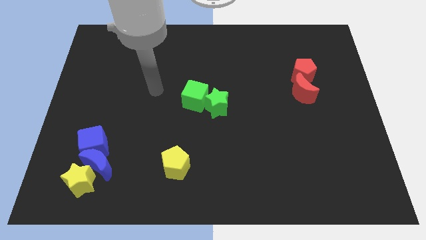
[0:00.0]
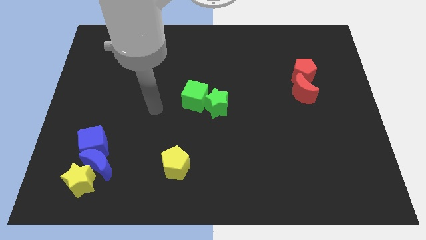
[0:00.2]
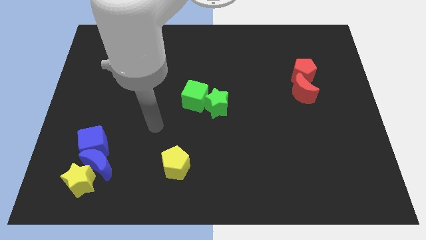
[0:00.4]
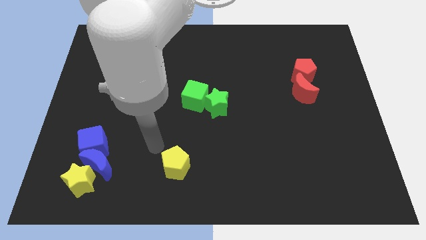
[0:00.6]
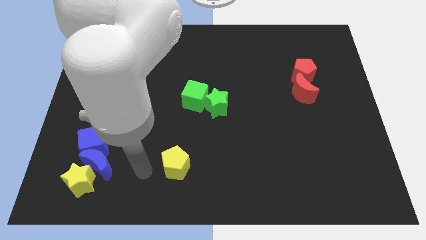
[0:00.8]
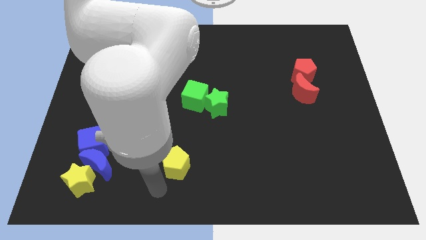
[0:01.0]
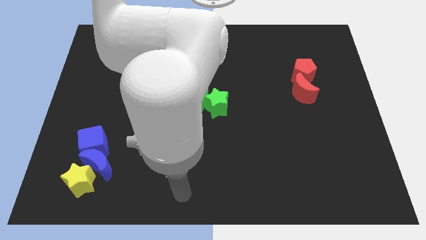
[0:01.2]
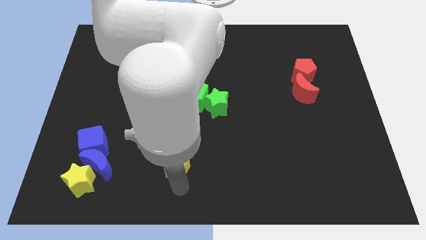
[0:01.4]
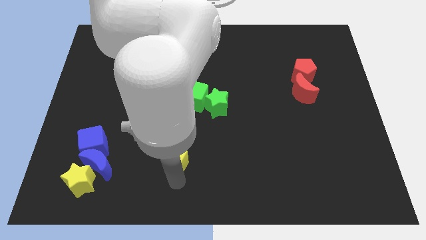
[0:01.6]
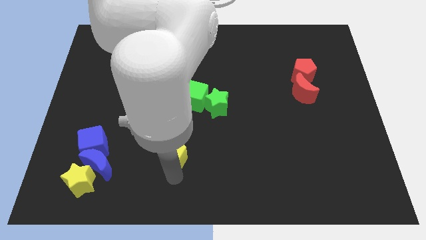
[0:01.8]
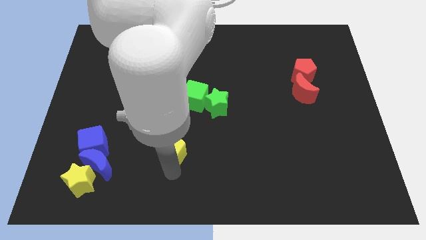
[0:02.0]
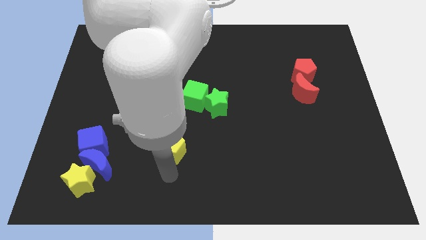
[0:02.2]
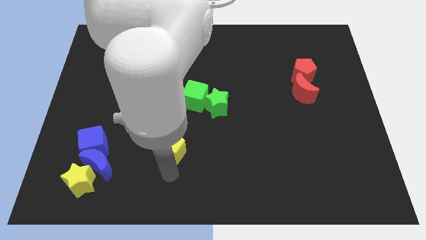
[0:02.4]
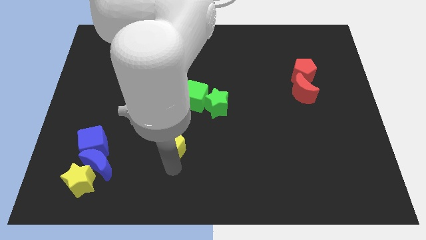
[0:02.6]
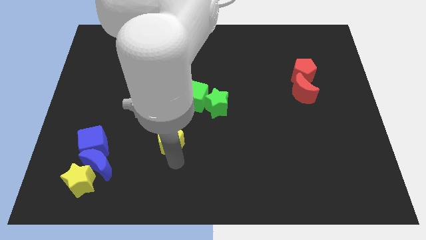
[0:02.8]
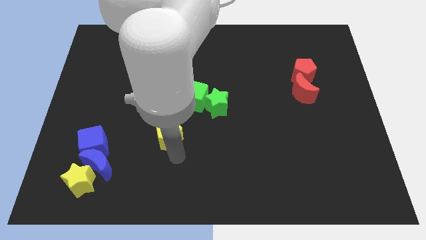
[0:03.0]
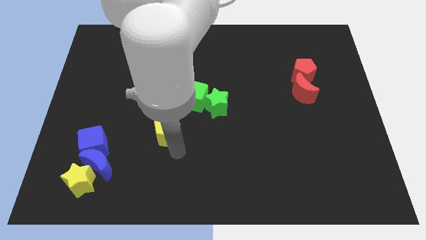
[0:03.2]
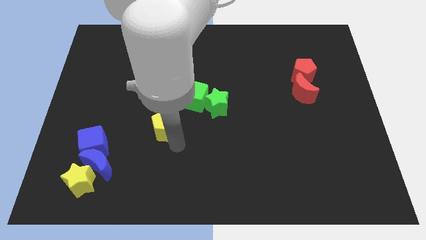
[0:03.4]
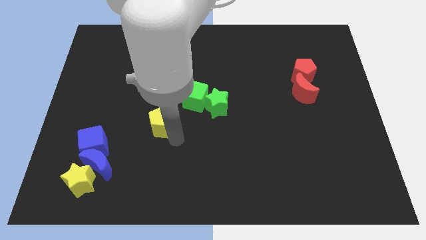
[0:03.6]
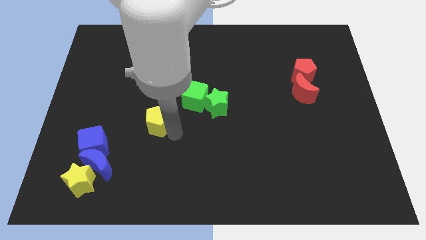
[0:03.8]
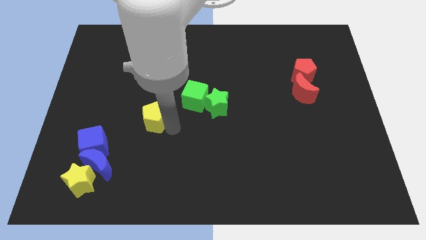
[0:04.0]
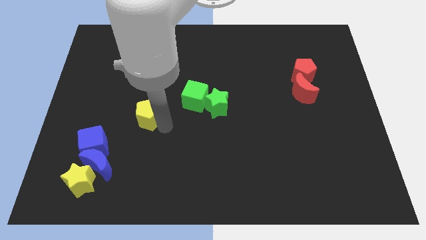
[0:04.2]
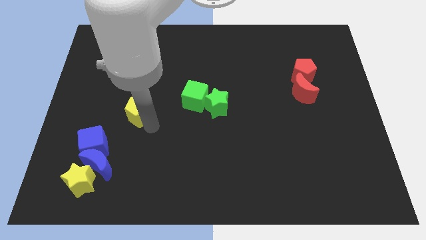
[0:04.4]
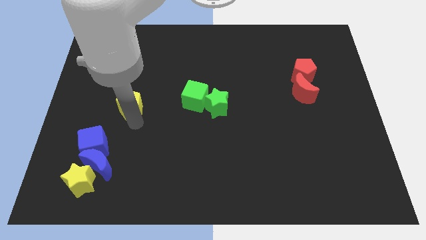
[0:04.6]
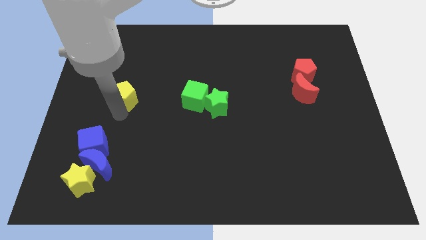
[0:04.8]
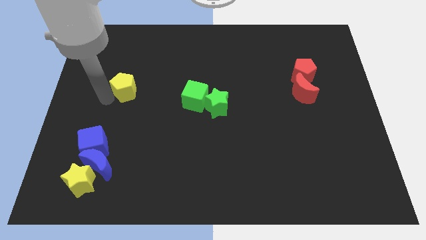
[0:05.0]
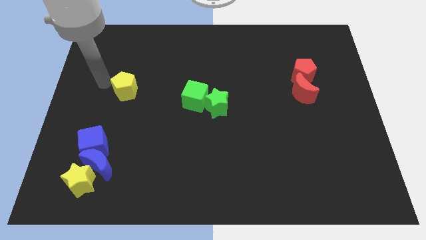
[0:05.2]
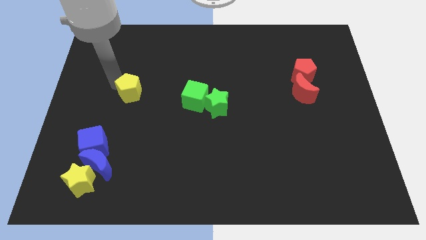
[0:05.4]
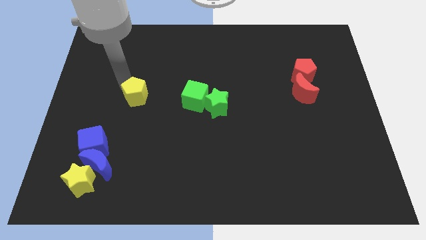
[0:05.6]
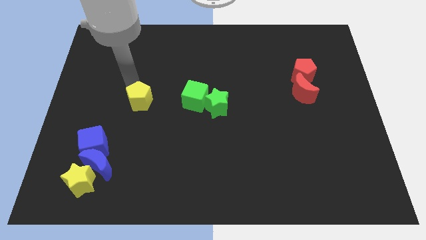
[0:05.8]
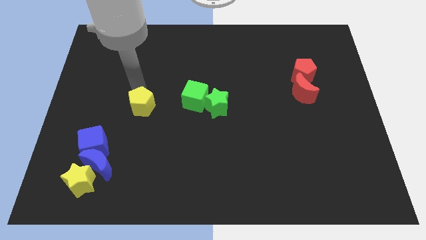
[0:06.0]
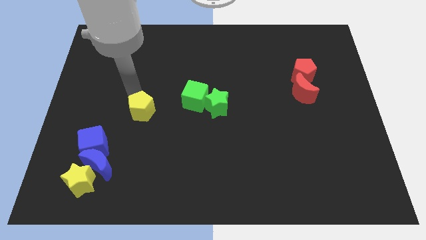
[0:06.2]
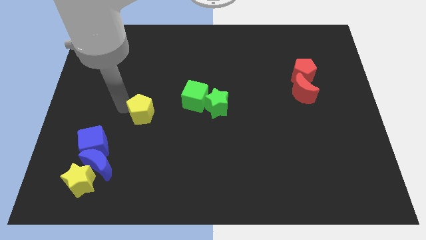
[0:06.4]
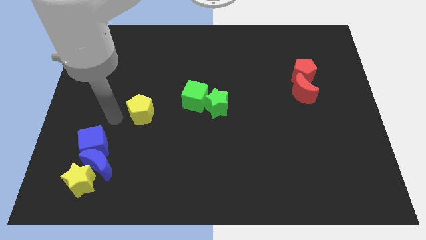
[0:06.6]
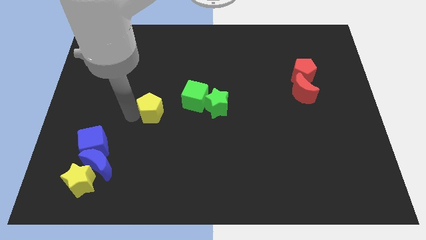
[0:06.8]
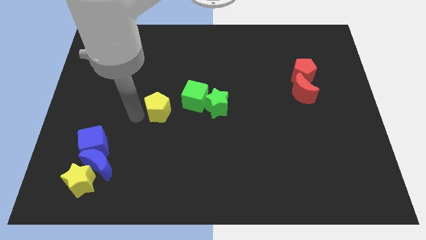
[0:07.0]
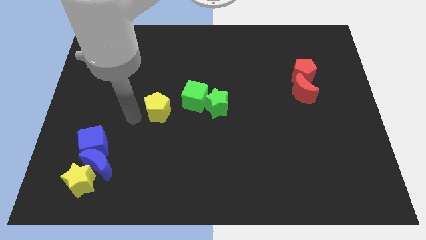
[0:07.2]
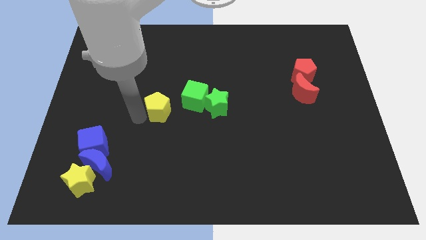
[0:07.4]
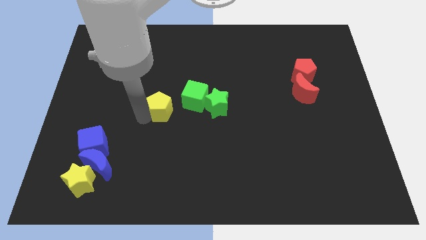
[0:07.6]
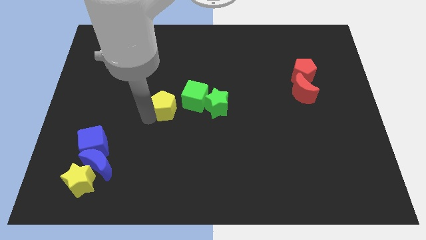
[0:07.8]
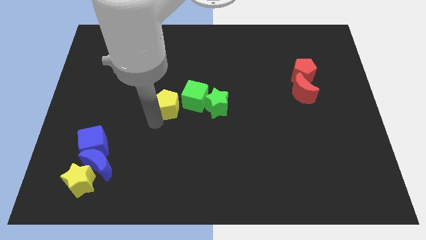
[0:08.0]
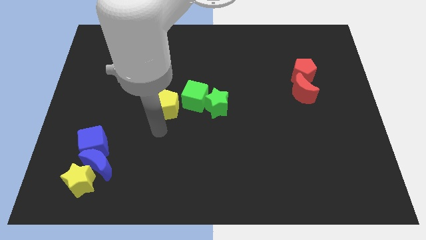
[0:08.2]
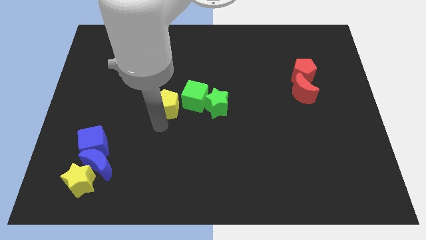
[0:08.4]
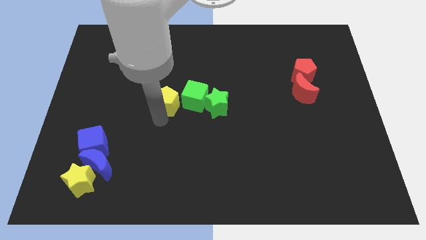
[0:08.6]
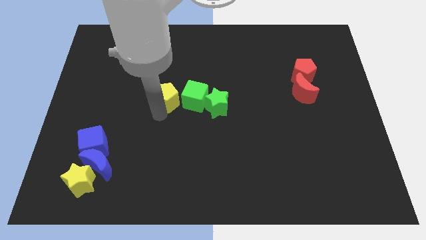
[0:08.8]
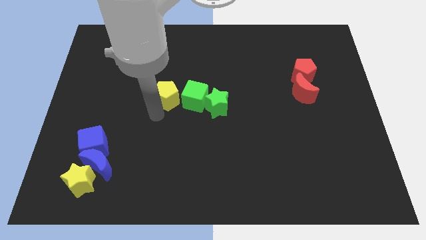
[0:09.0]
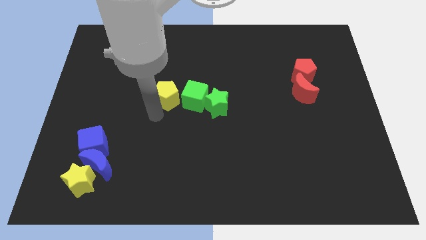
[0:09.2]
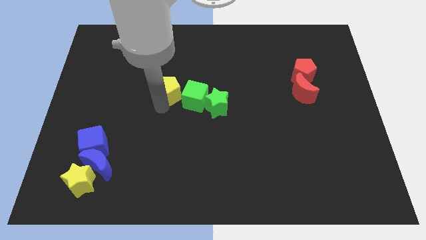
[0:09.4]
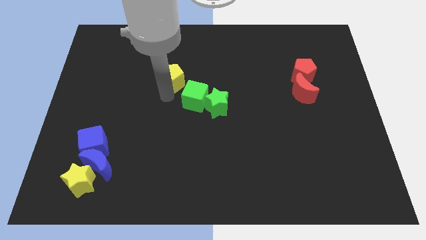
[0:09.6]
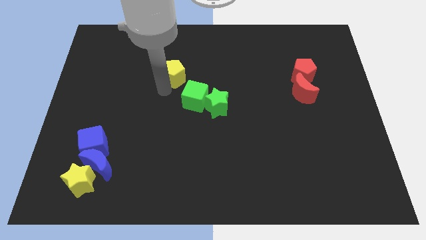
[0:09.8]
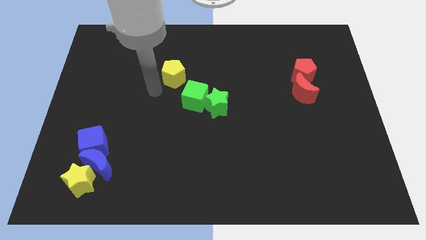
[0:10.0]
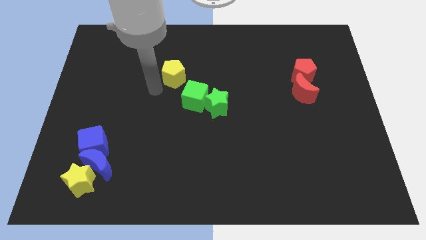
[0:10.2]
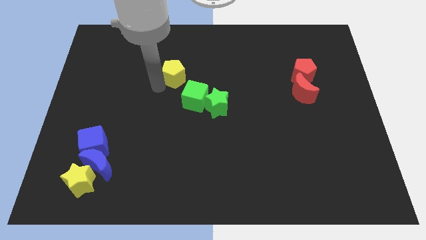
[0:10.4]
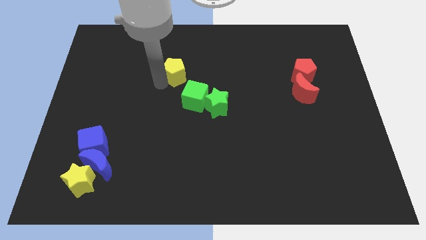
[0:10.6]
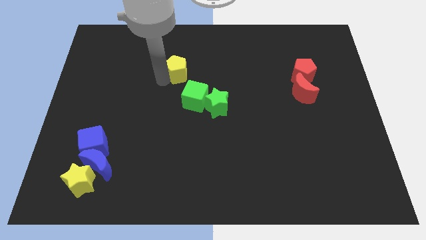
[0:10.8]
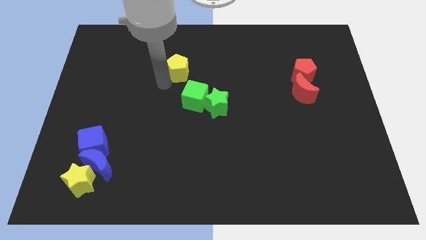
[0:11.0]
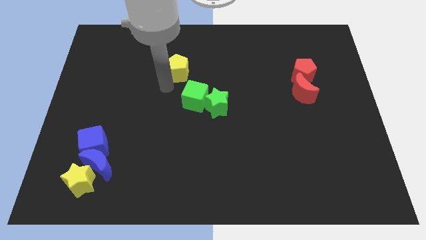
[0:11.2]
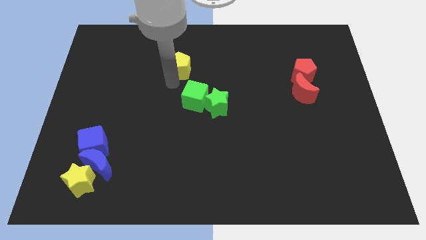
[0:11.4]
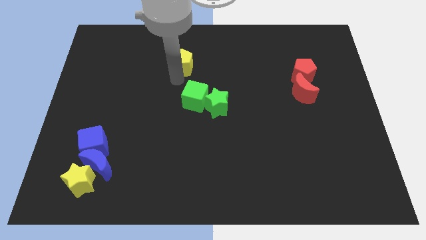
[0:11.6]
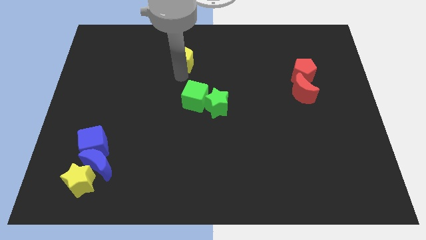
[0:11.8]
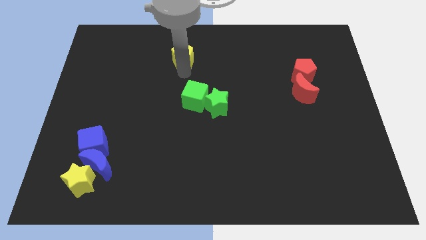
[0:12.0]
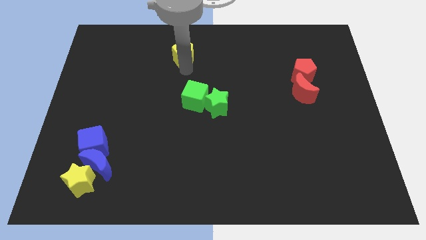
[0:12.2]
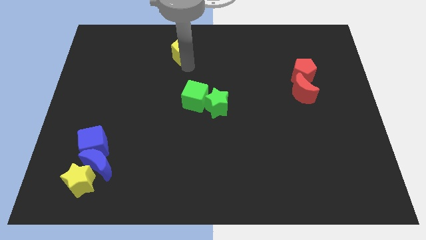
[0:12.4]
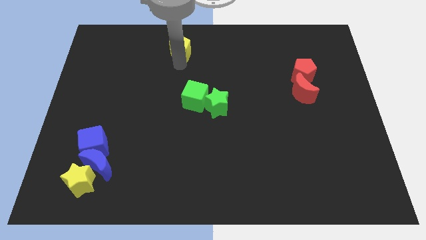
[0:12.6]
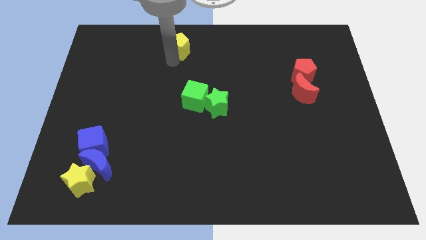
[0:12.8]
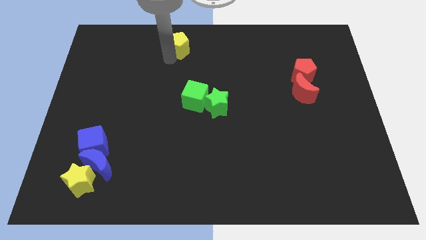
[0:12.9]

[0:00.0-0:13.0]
move the yellow pentagon to the towards your base
